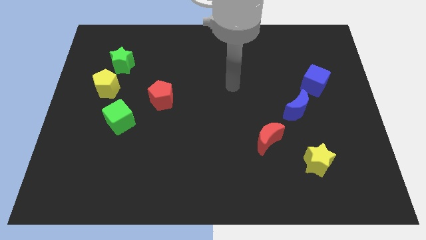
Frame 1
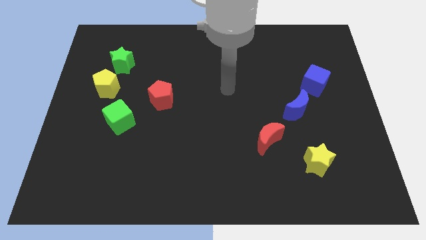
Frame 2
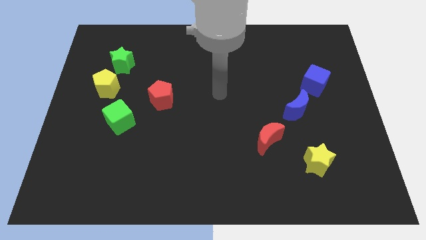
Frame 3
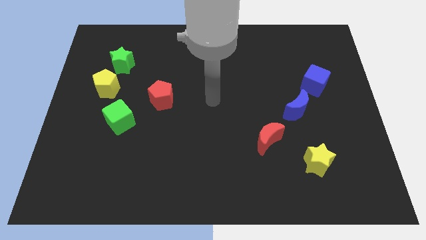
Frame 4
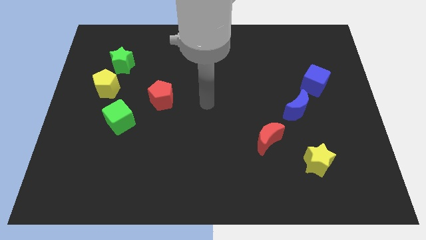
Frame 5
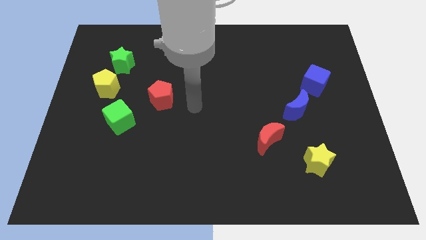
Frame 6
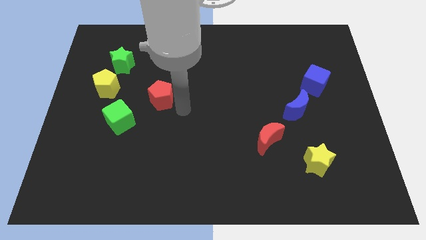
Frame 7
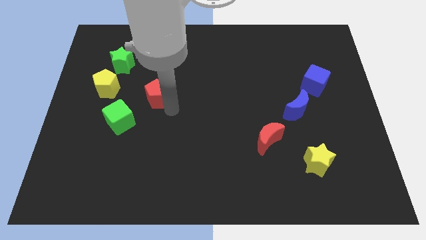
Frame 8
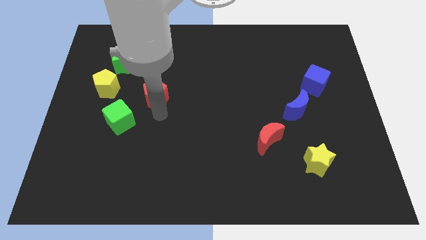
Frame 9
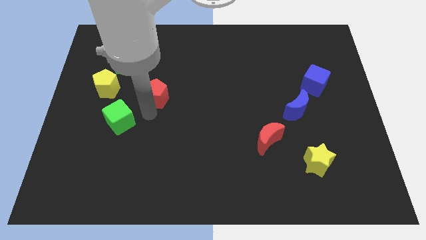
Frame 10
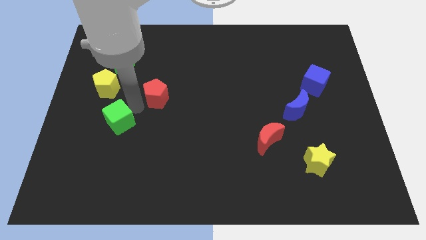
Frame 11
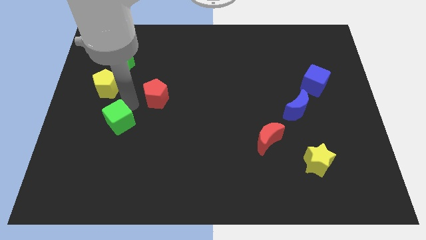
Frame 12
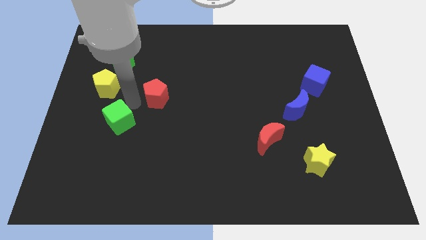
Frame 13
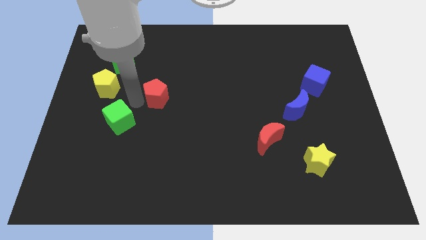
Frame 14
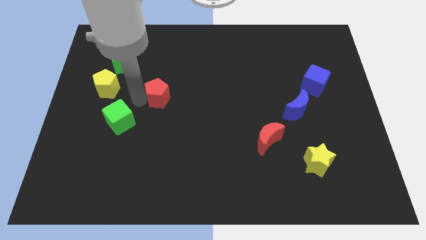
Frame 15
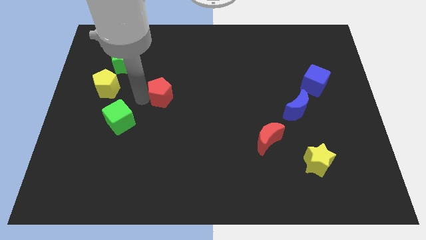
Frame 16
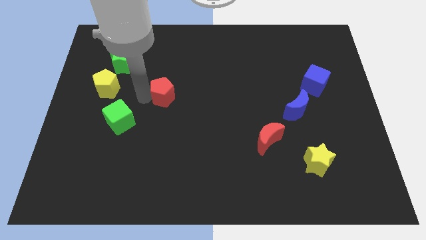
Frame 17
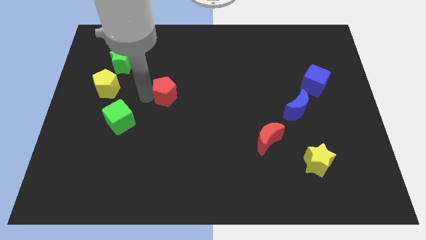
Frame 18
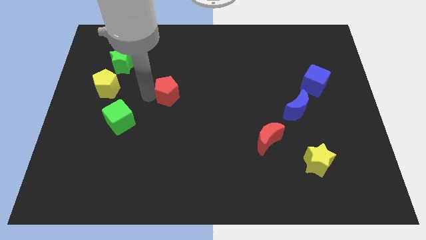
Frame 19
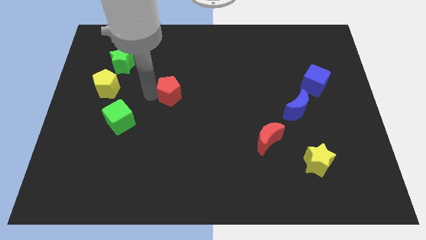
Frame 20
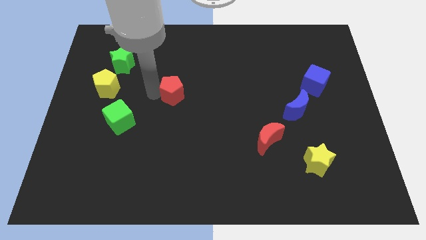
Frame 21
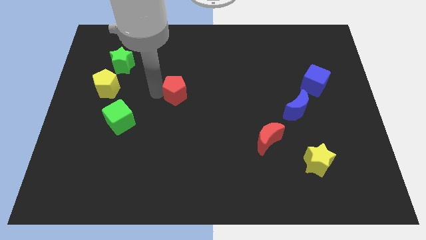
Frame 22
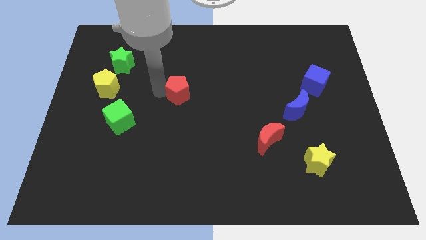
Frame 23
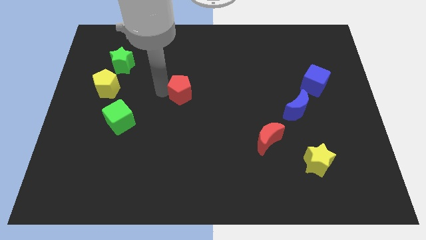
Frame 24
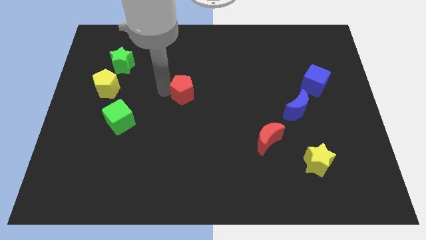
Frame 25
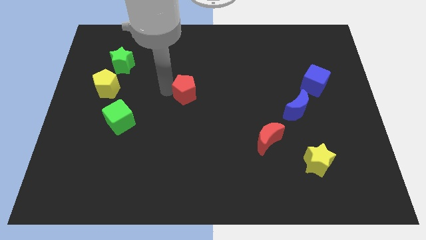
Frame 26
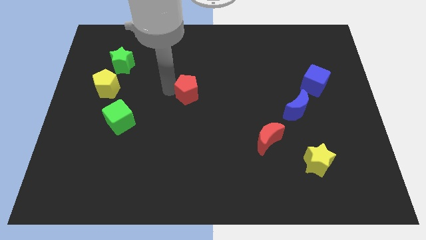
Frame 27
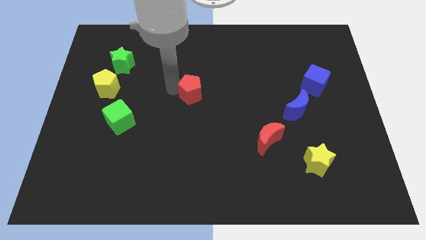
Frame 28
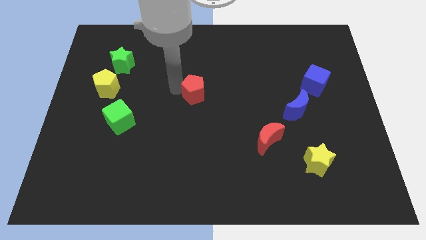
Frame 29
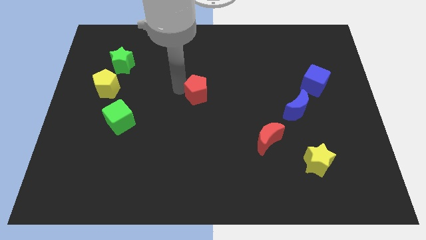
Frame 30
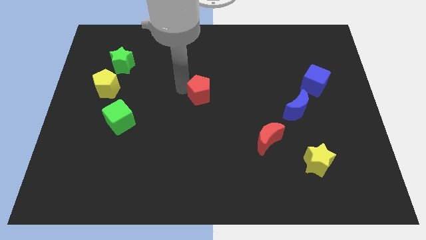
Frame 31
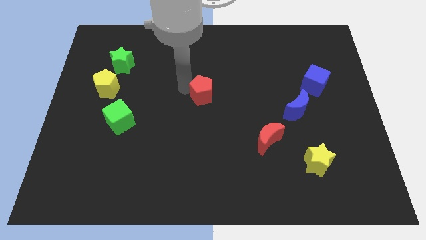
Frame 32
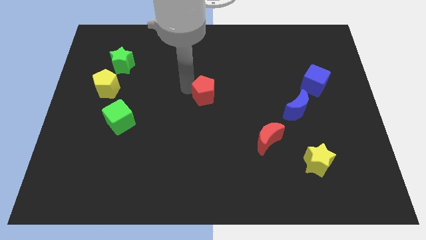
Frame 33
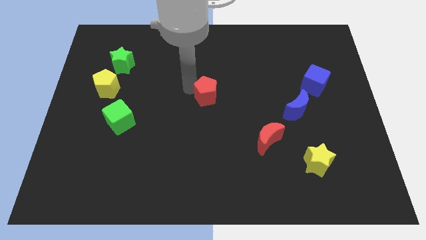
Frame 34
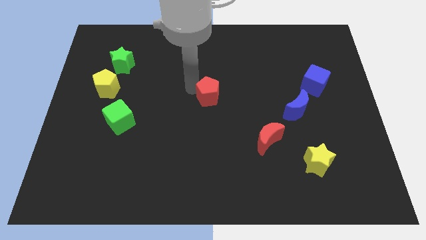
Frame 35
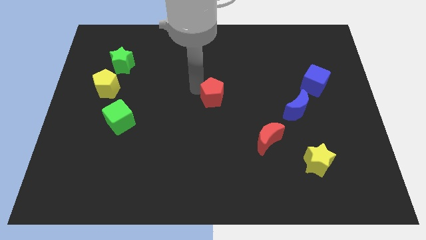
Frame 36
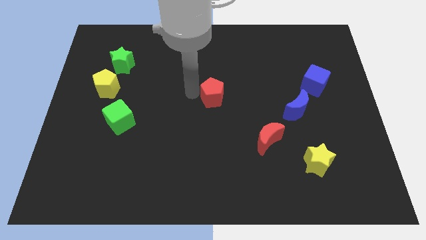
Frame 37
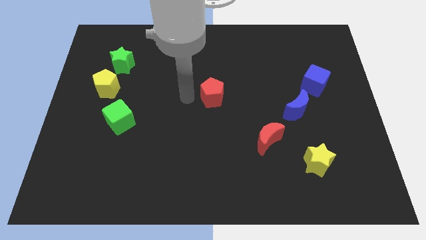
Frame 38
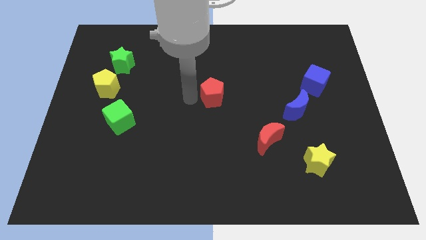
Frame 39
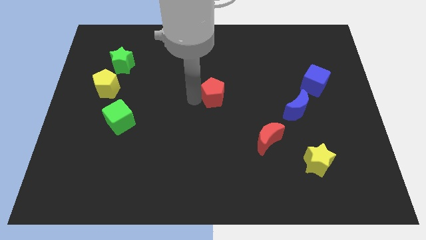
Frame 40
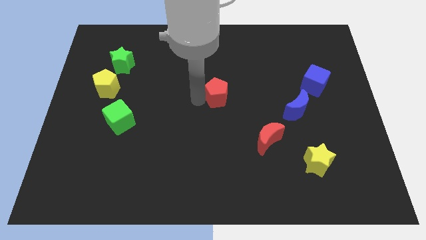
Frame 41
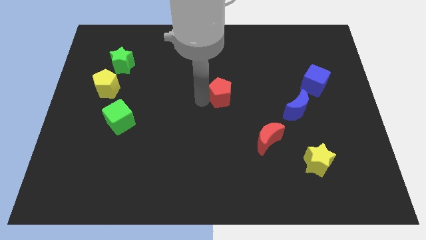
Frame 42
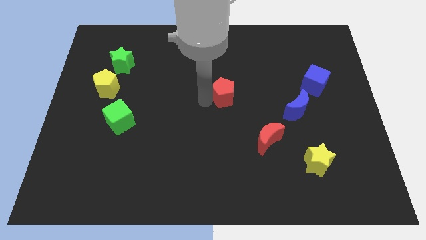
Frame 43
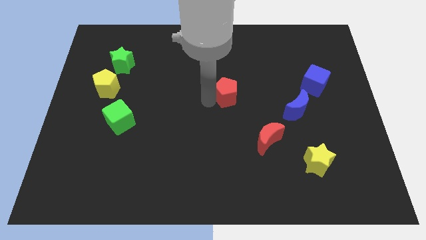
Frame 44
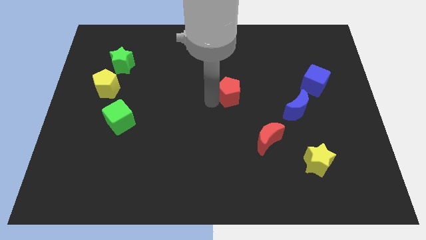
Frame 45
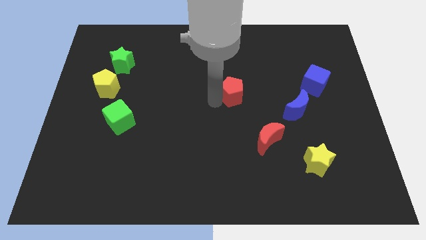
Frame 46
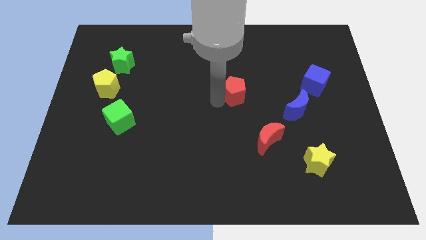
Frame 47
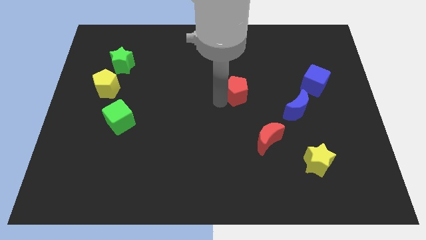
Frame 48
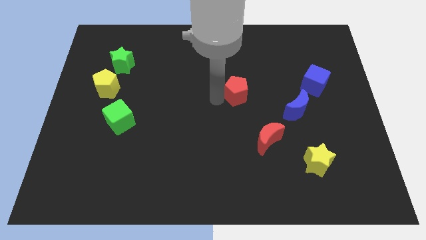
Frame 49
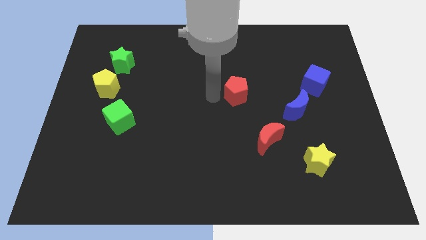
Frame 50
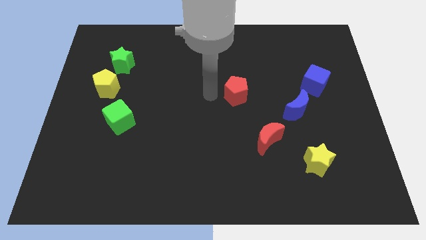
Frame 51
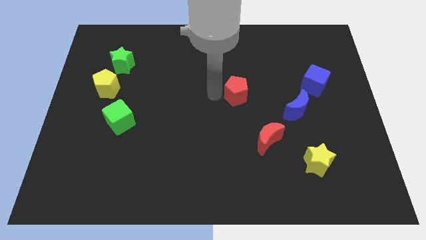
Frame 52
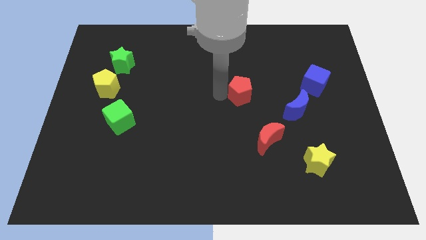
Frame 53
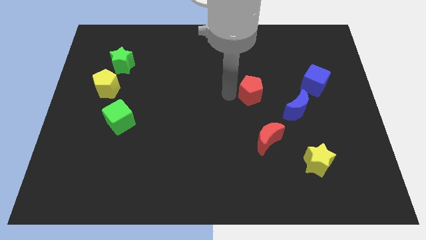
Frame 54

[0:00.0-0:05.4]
slide the red pentagon to the top left of the blue moon

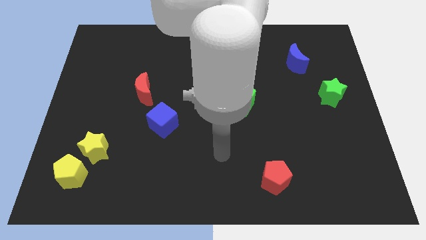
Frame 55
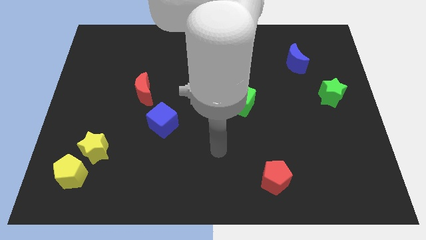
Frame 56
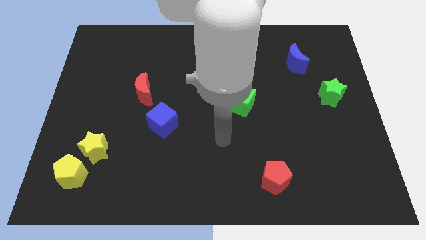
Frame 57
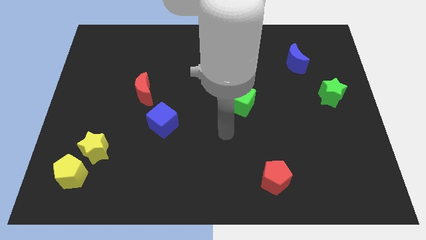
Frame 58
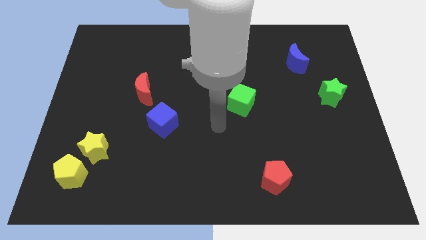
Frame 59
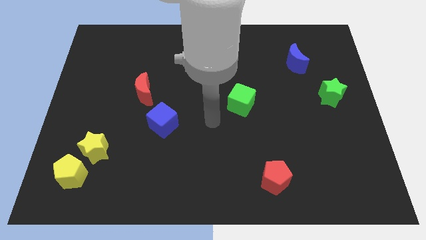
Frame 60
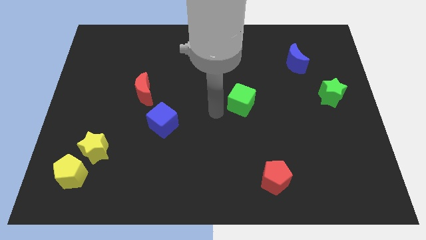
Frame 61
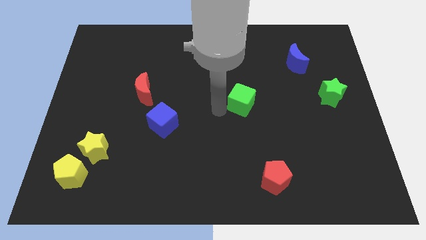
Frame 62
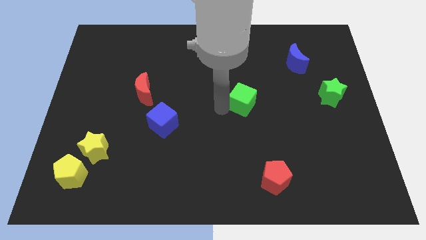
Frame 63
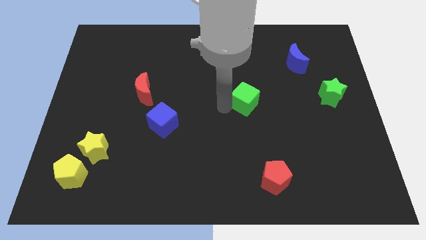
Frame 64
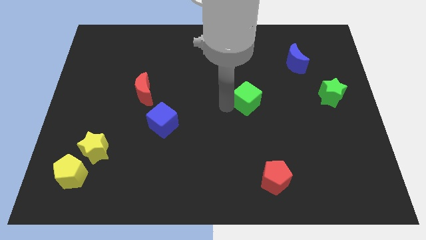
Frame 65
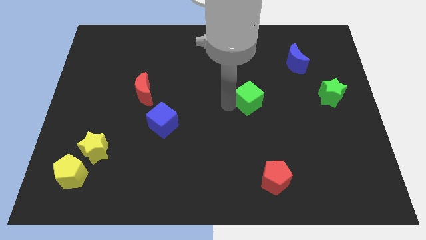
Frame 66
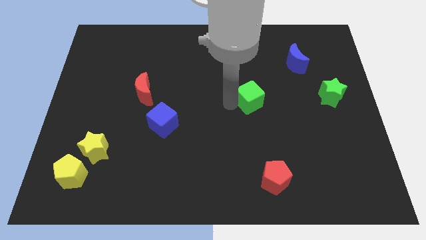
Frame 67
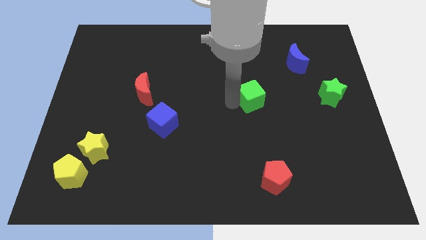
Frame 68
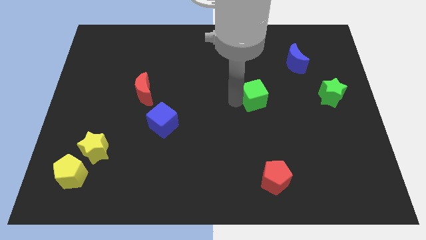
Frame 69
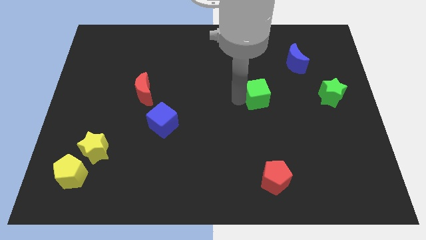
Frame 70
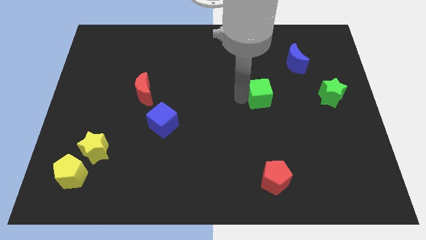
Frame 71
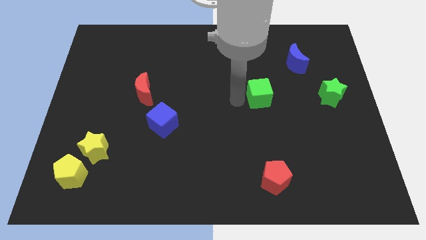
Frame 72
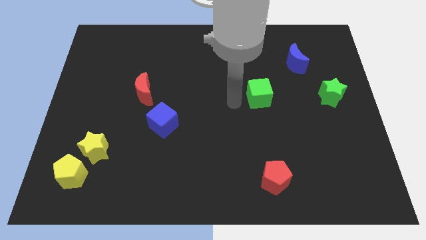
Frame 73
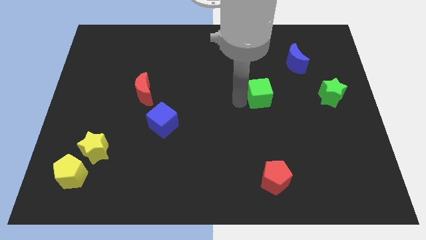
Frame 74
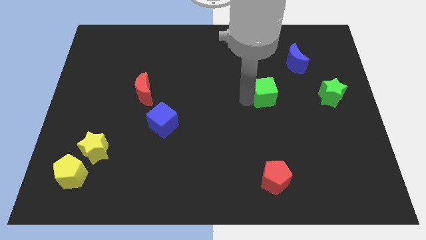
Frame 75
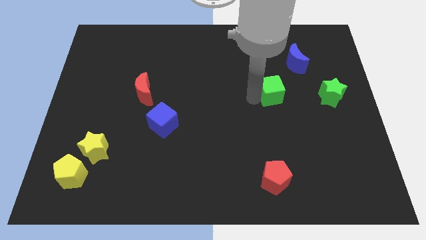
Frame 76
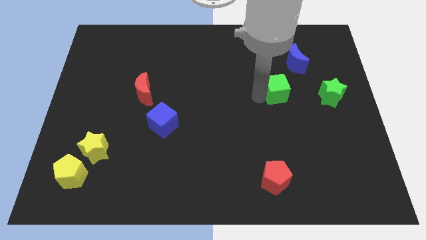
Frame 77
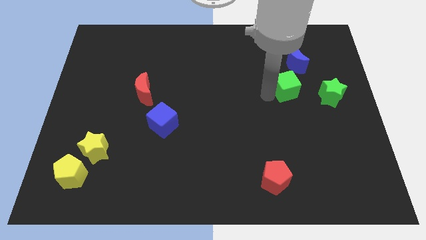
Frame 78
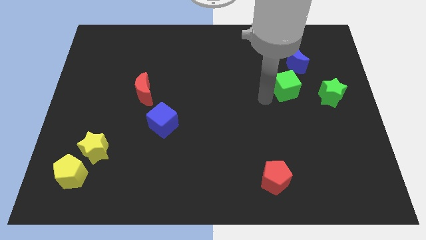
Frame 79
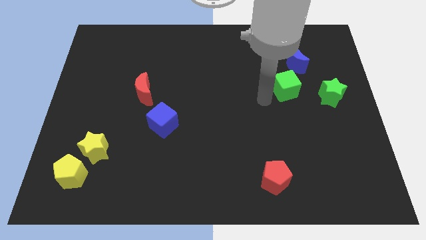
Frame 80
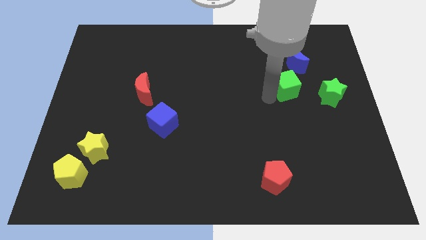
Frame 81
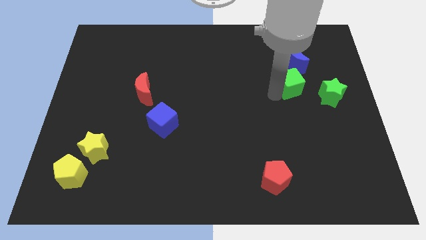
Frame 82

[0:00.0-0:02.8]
push the green cube to the top left side of the green star
